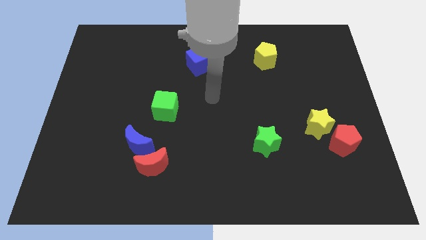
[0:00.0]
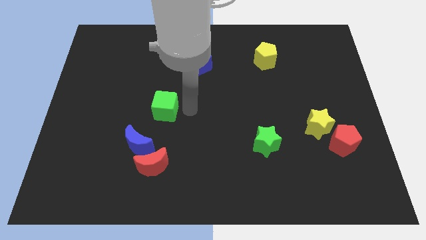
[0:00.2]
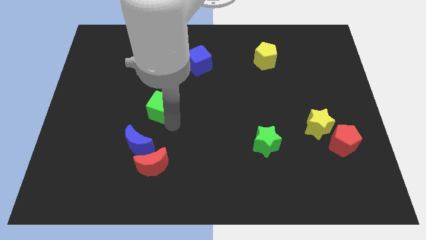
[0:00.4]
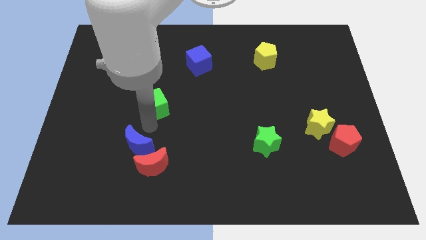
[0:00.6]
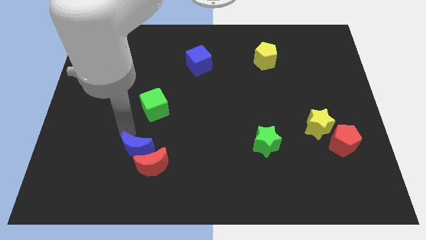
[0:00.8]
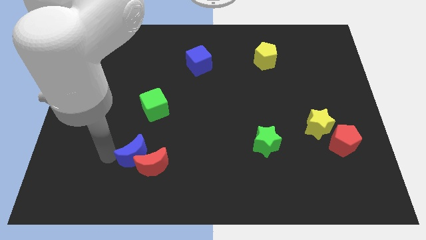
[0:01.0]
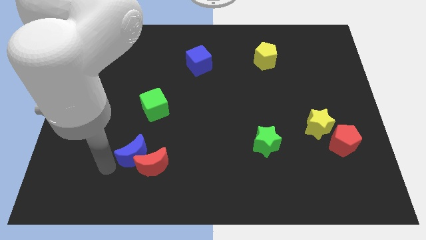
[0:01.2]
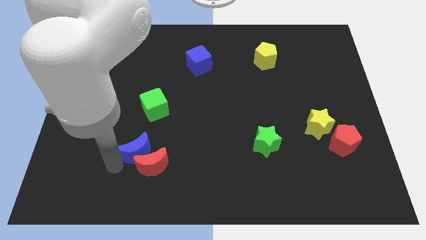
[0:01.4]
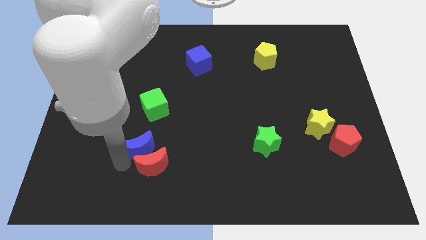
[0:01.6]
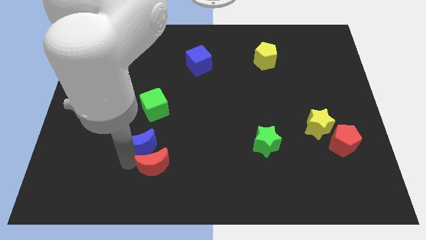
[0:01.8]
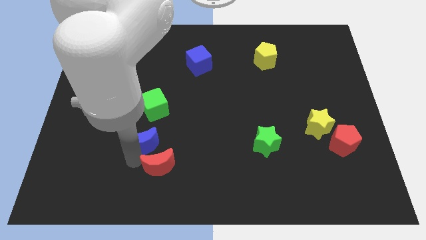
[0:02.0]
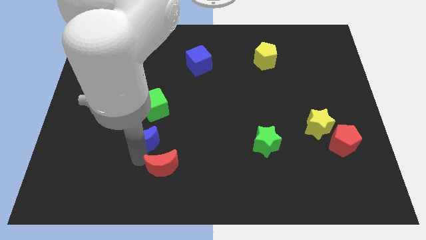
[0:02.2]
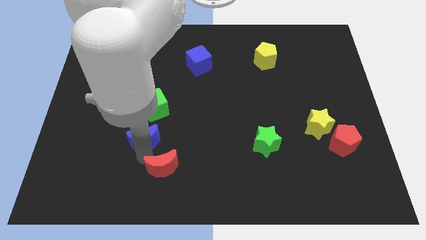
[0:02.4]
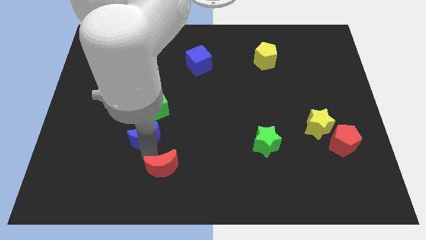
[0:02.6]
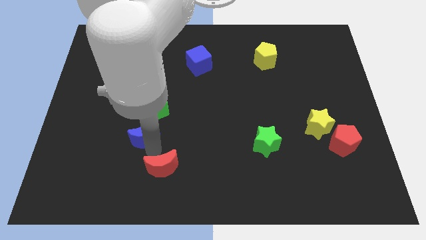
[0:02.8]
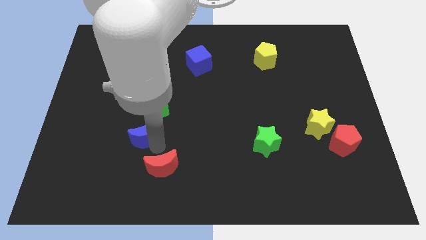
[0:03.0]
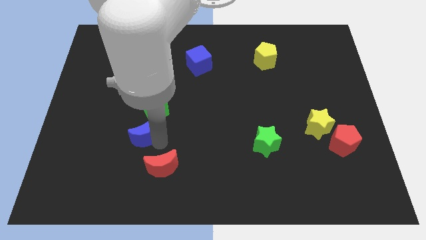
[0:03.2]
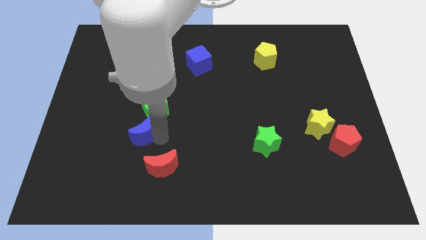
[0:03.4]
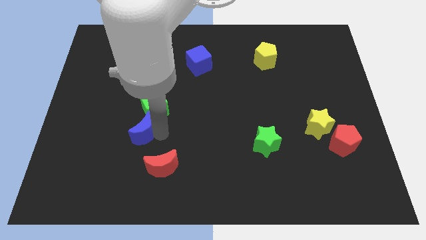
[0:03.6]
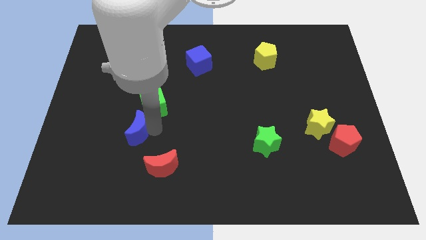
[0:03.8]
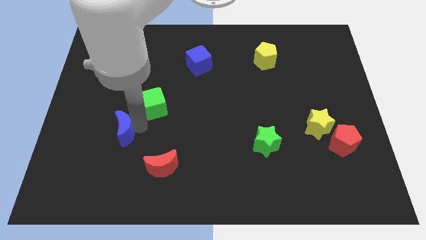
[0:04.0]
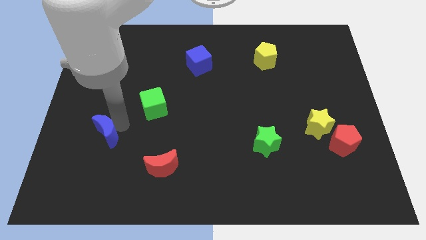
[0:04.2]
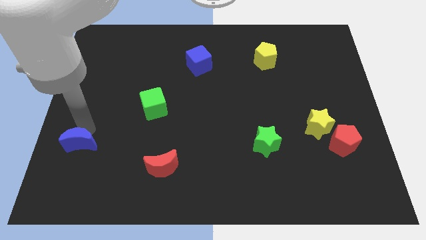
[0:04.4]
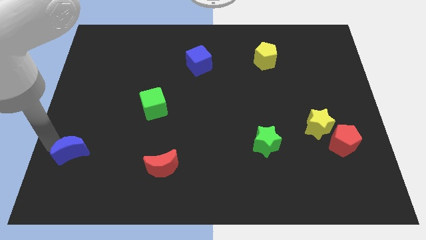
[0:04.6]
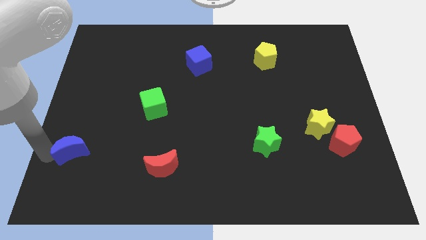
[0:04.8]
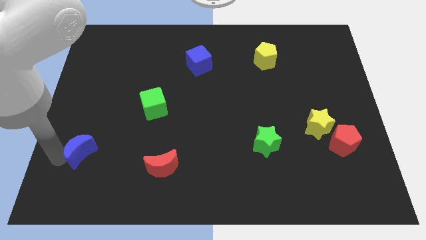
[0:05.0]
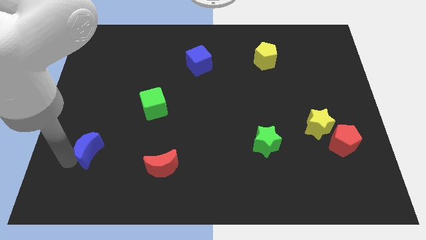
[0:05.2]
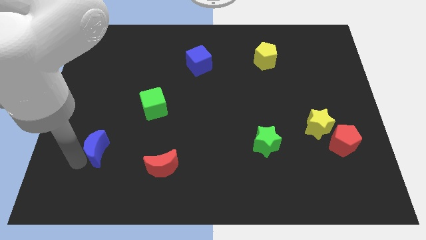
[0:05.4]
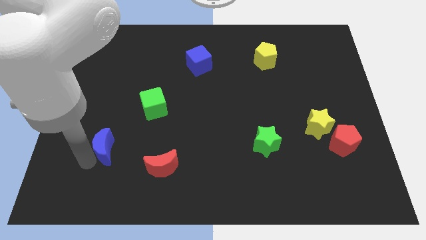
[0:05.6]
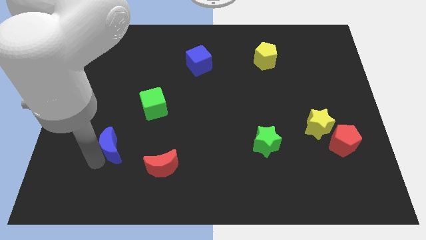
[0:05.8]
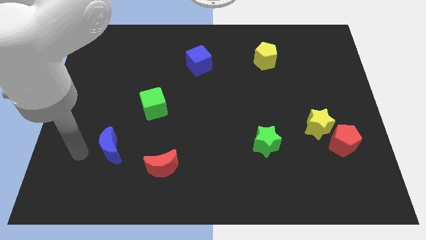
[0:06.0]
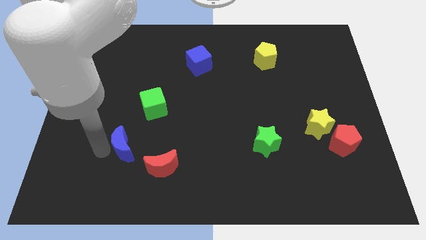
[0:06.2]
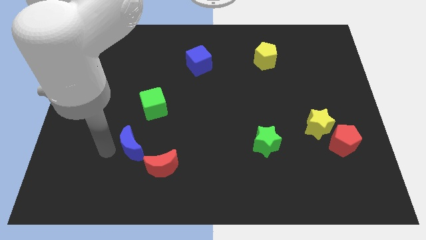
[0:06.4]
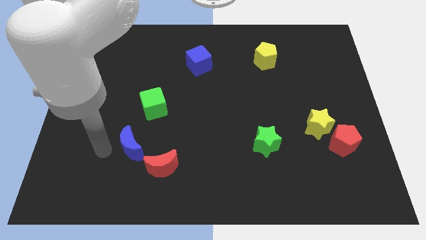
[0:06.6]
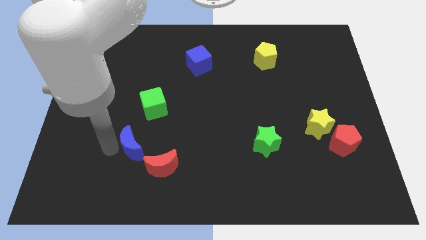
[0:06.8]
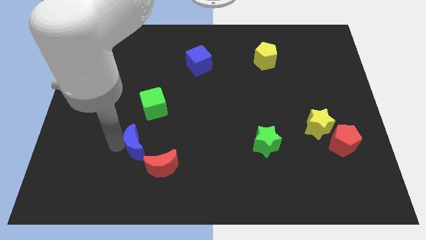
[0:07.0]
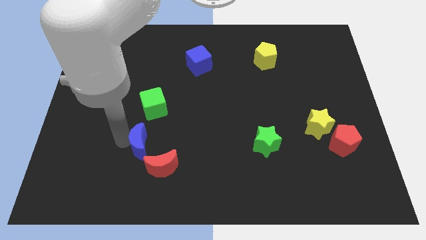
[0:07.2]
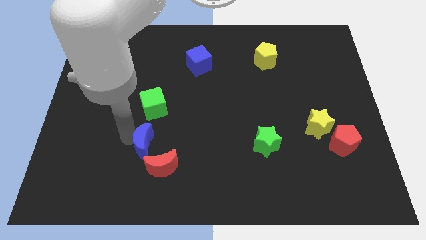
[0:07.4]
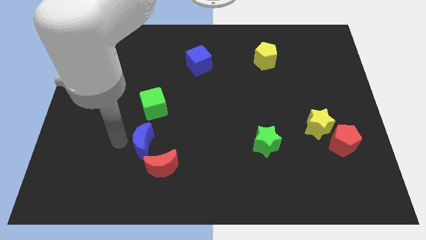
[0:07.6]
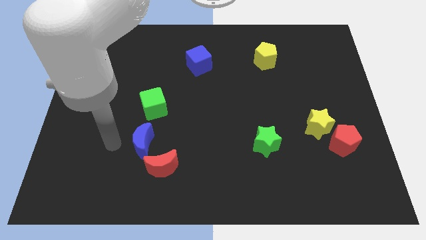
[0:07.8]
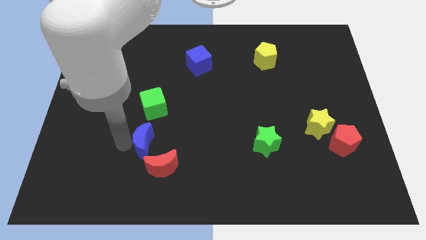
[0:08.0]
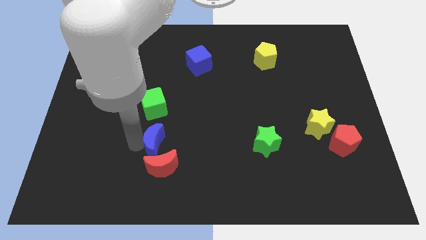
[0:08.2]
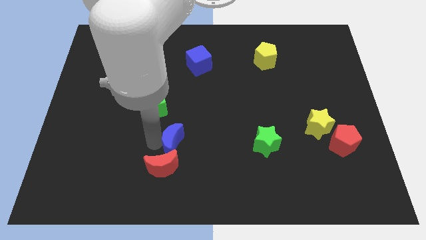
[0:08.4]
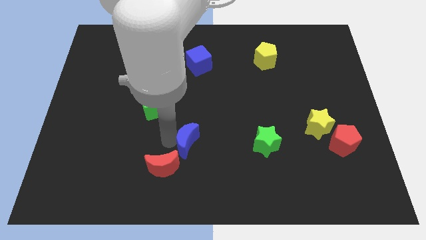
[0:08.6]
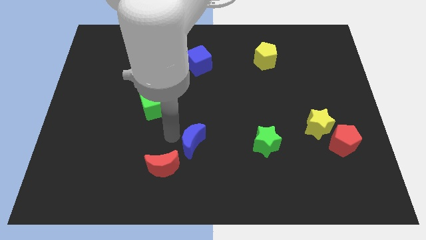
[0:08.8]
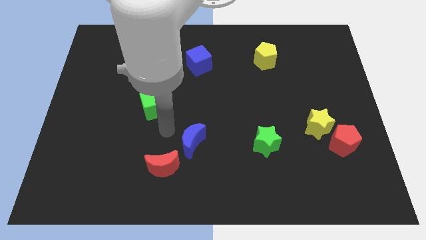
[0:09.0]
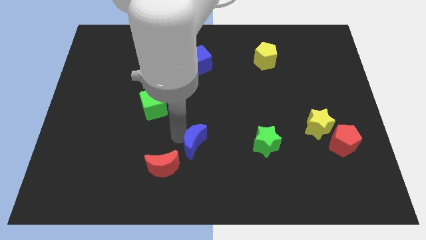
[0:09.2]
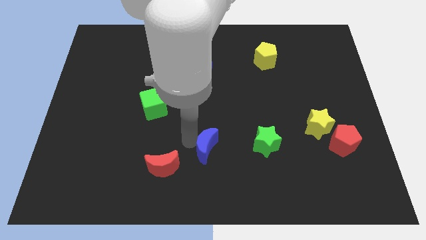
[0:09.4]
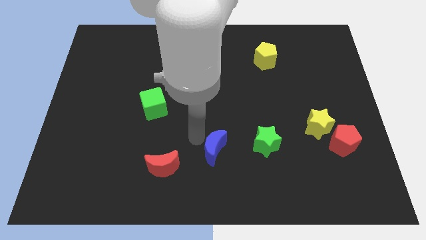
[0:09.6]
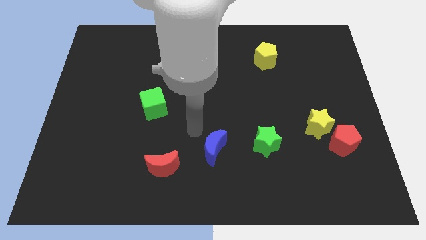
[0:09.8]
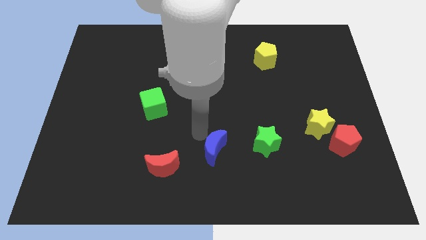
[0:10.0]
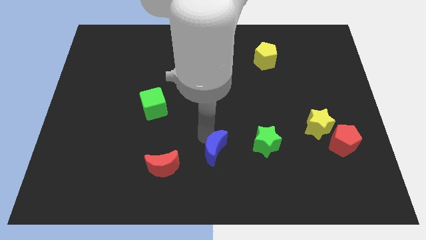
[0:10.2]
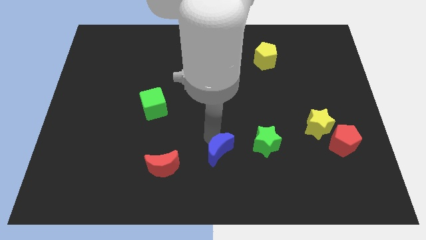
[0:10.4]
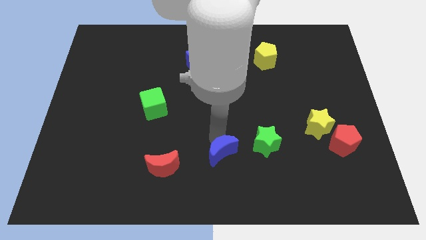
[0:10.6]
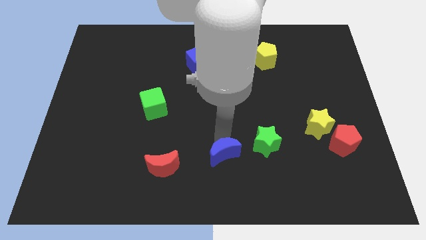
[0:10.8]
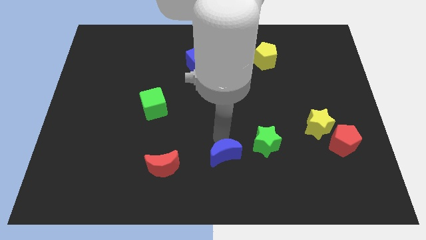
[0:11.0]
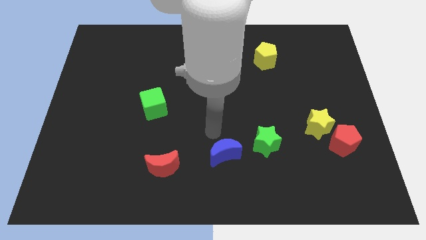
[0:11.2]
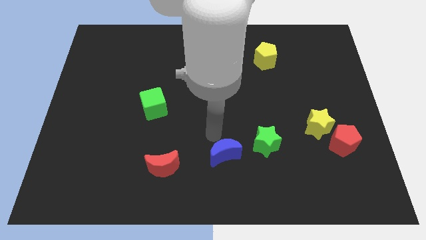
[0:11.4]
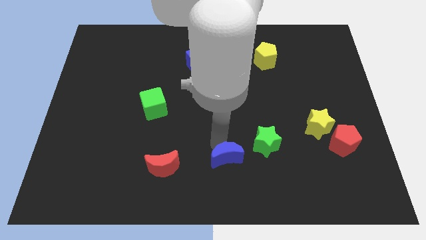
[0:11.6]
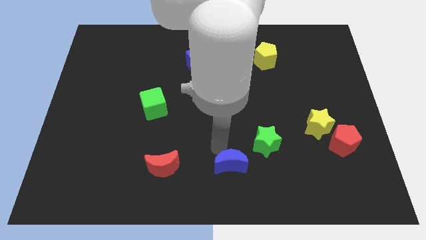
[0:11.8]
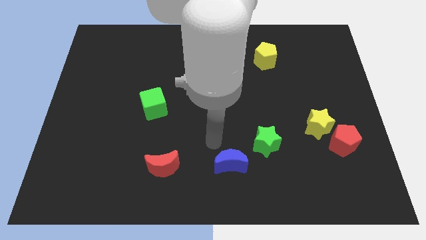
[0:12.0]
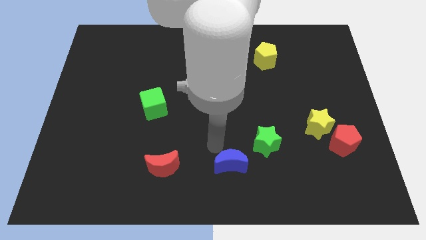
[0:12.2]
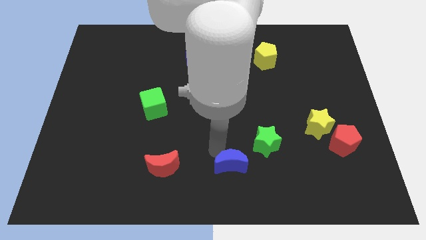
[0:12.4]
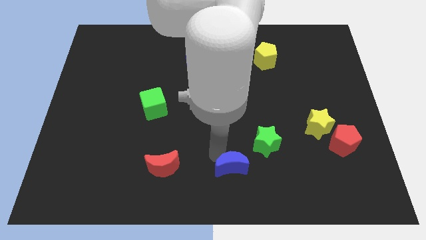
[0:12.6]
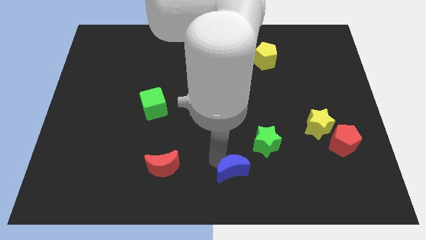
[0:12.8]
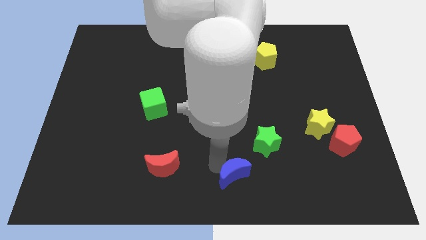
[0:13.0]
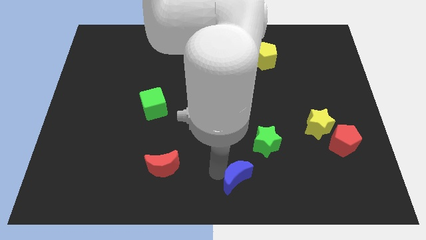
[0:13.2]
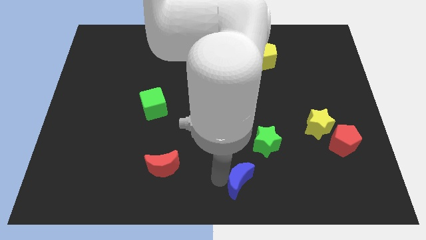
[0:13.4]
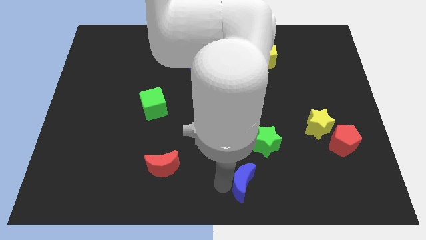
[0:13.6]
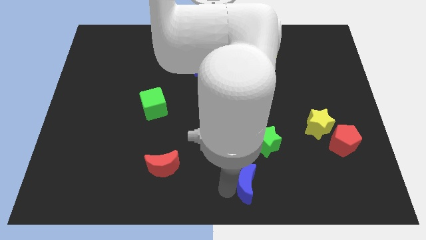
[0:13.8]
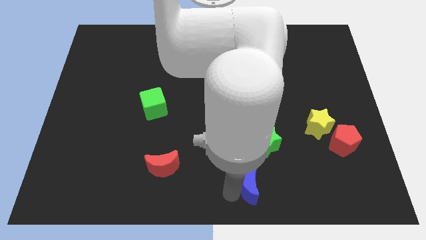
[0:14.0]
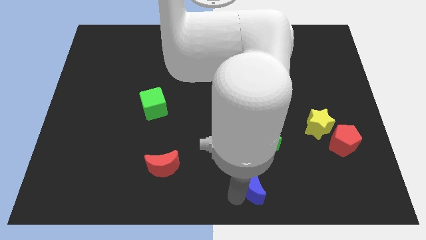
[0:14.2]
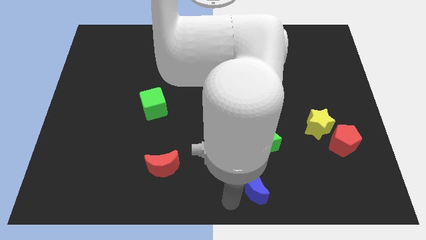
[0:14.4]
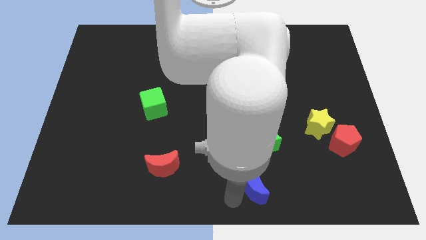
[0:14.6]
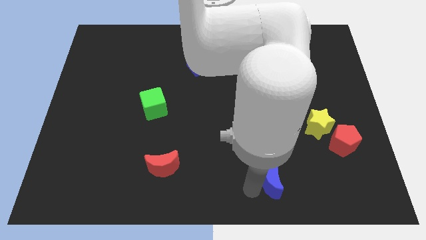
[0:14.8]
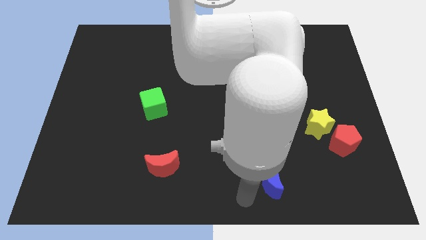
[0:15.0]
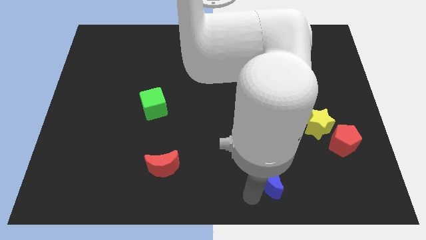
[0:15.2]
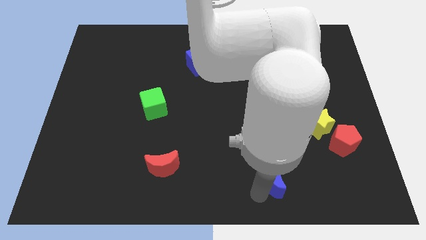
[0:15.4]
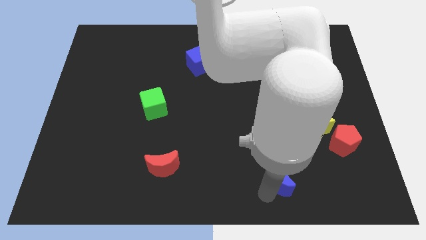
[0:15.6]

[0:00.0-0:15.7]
slide the blue moon to the bottom right of the green star
